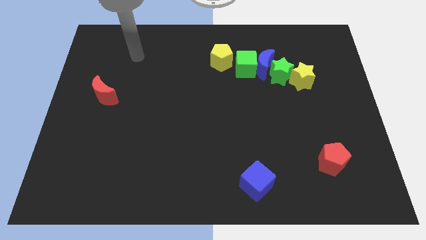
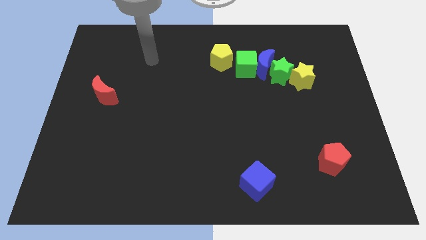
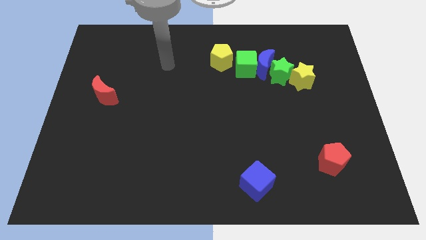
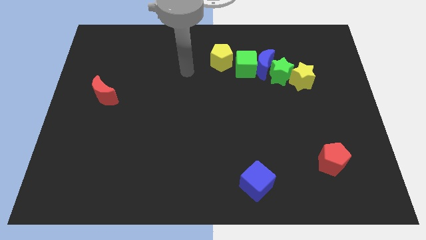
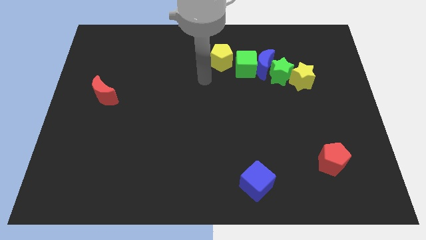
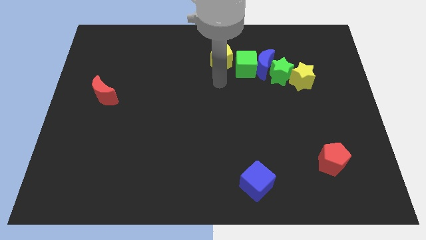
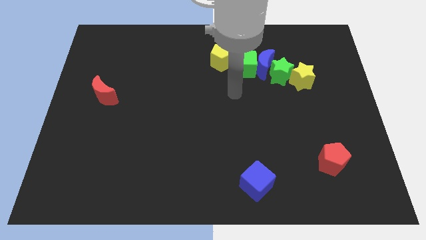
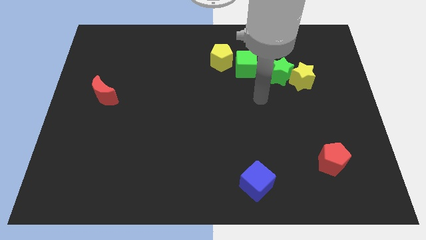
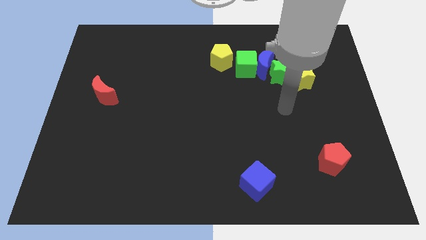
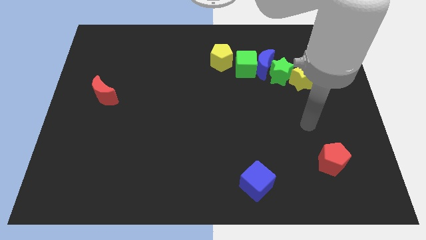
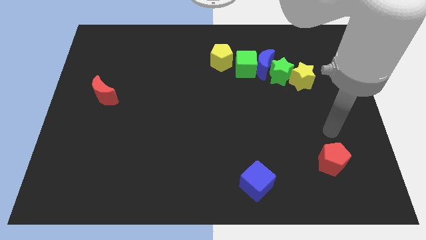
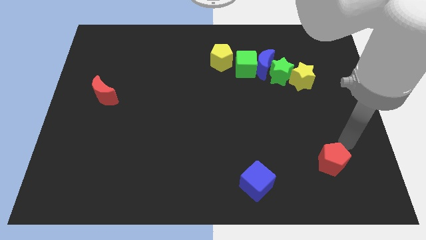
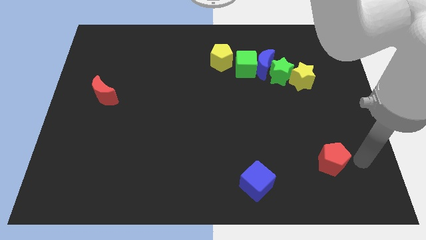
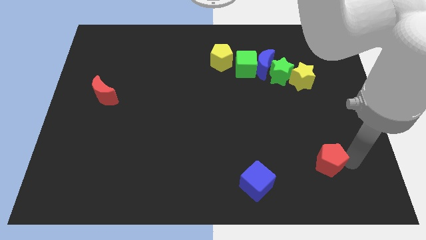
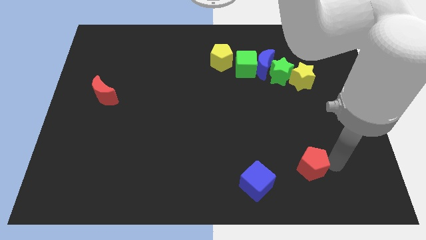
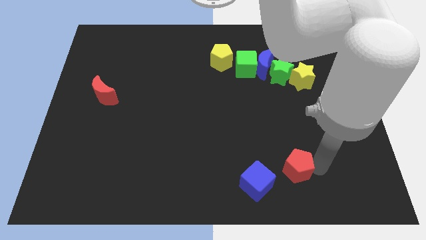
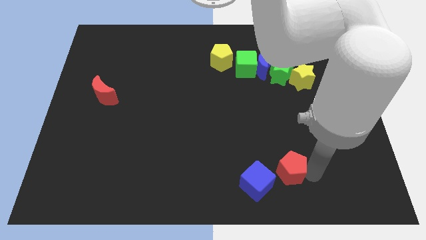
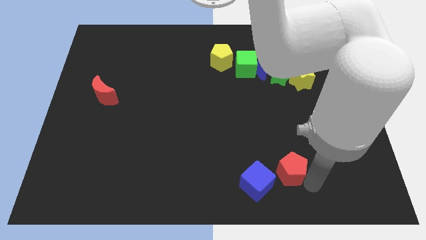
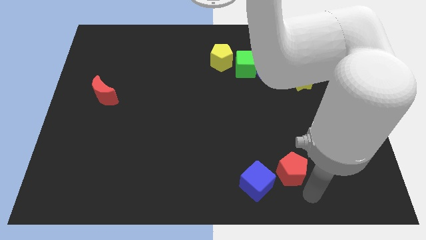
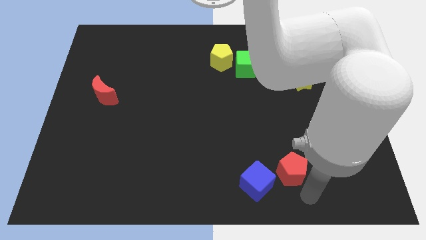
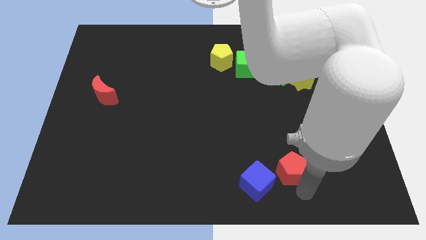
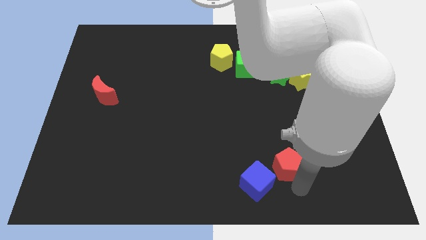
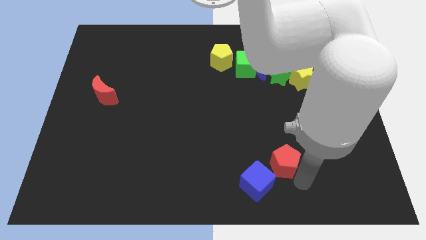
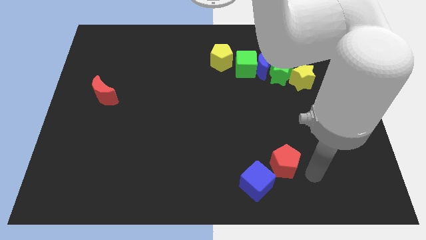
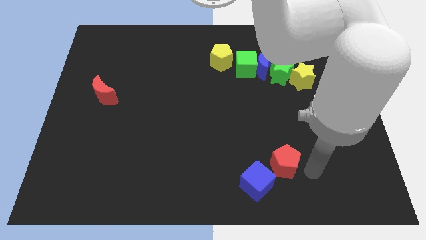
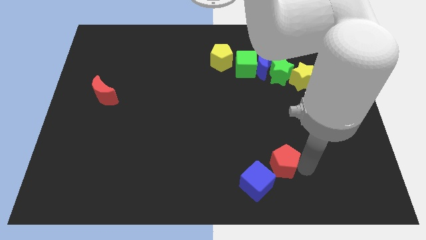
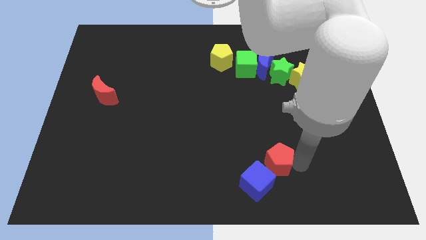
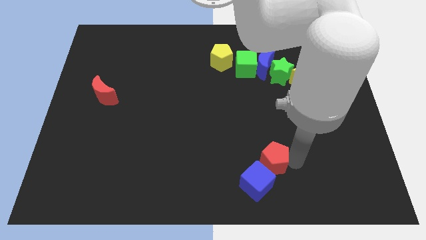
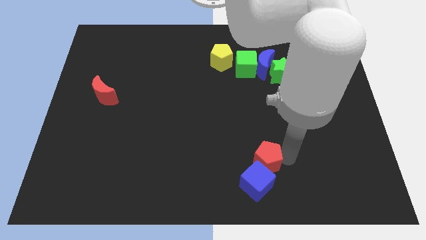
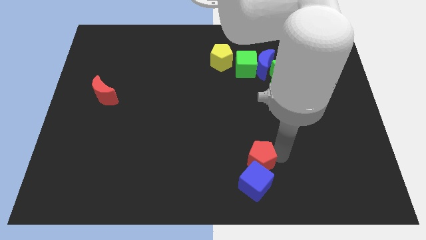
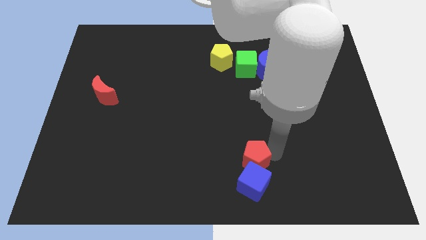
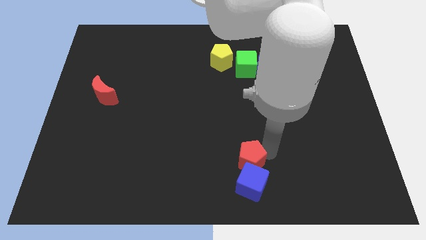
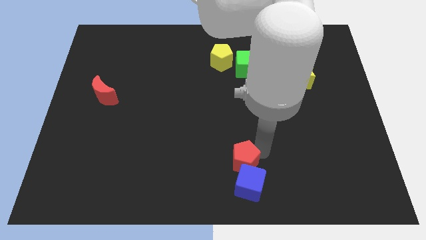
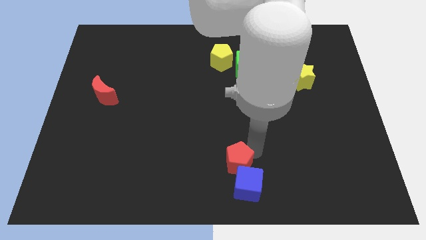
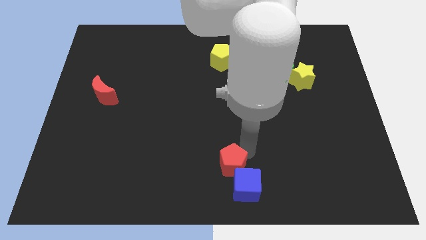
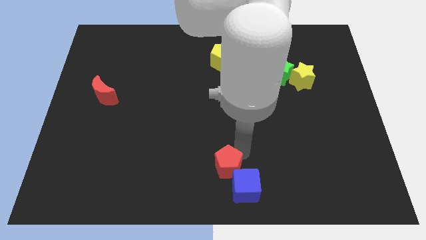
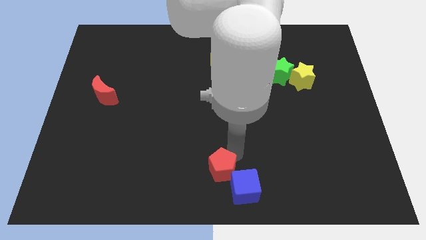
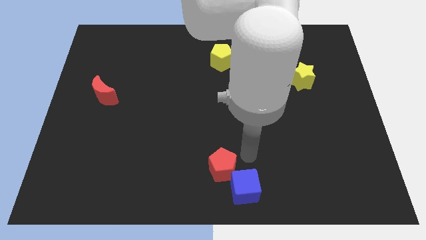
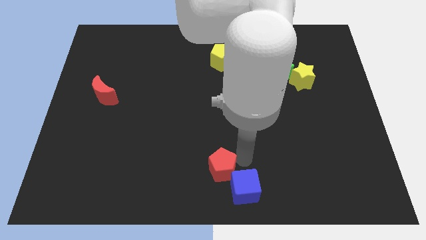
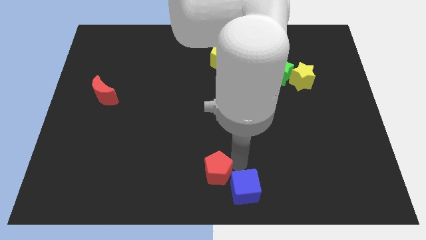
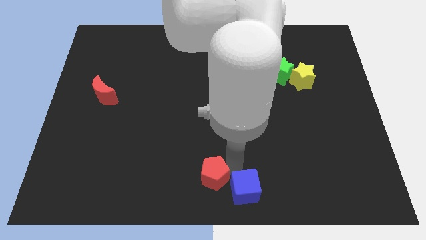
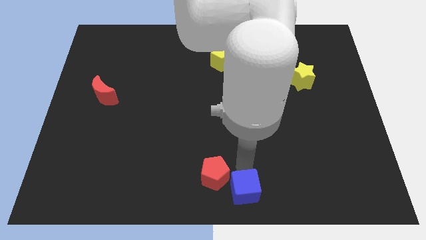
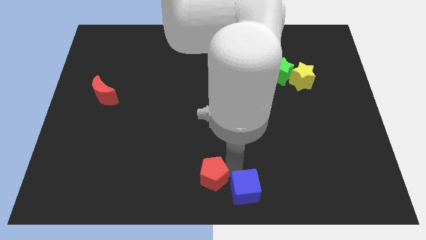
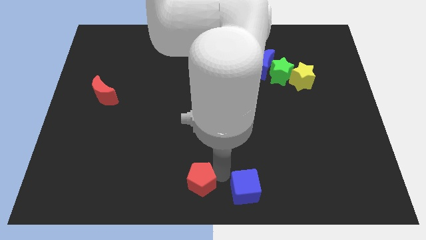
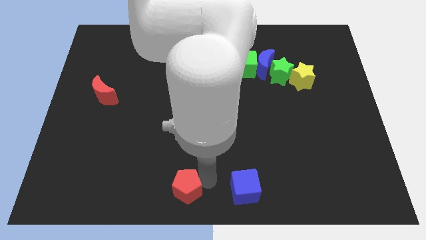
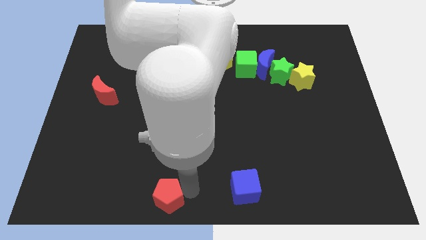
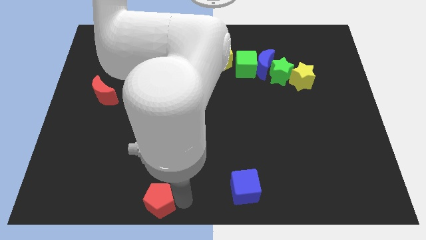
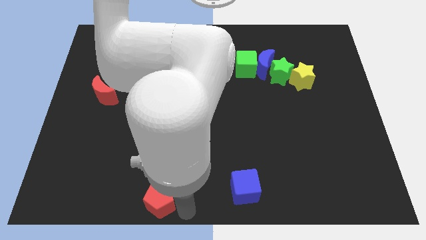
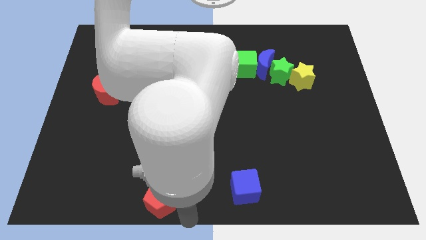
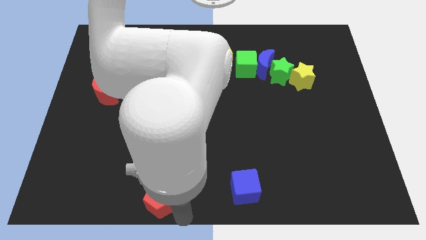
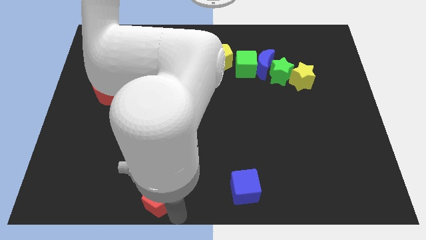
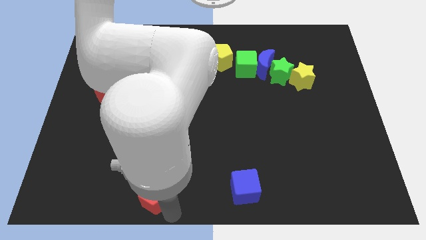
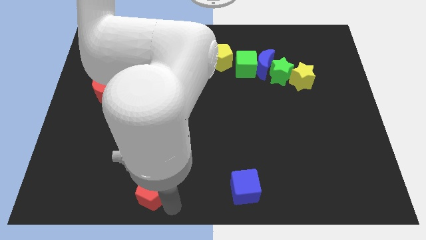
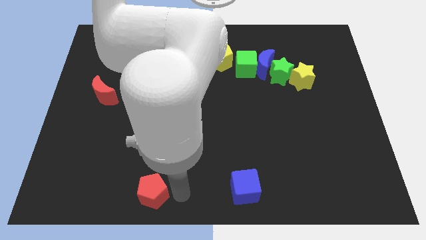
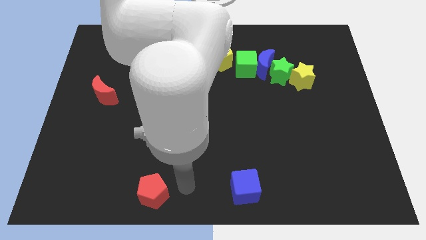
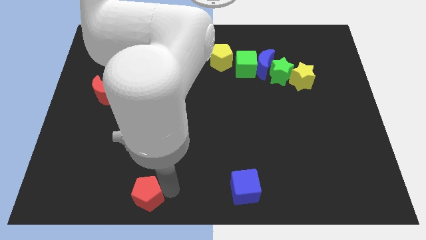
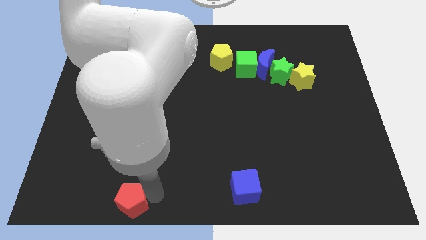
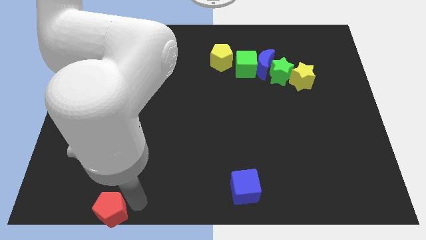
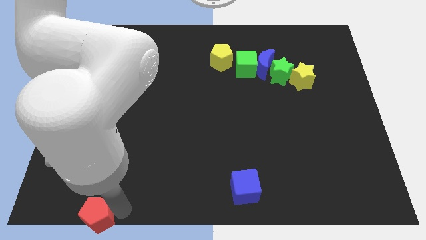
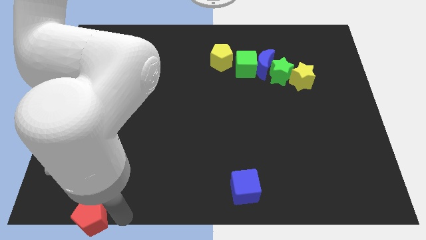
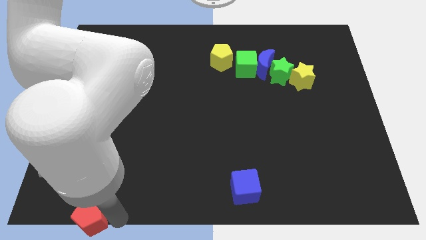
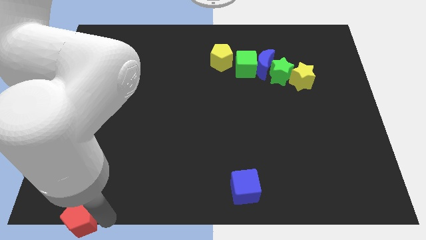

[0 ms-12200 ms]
slide the red pentagon to the bottom left
